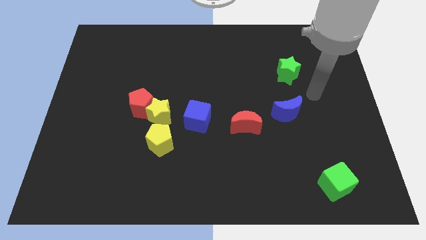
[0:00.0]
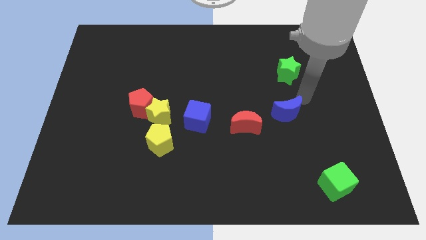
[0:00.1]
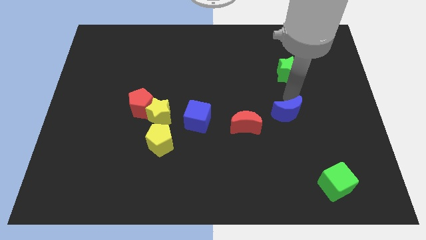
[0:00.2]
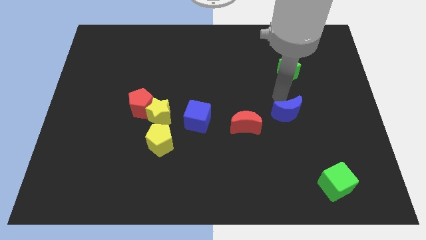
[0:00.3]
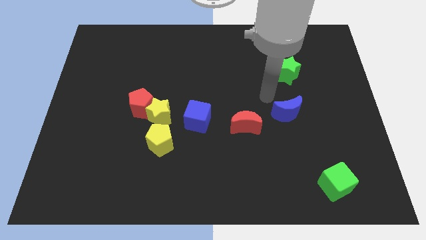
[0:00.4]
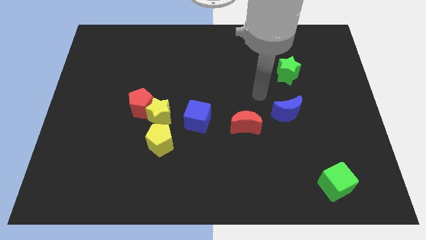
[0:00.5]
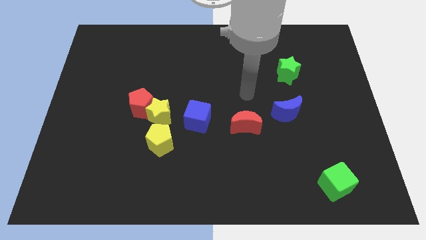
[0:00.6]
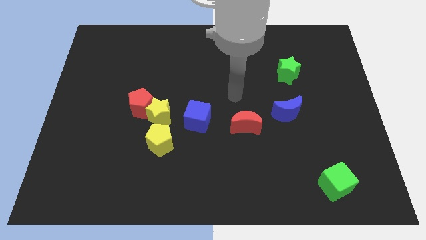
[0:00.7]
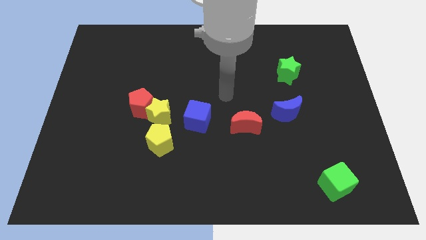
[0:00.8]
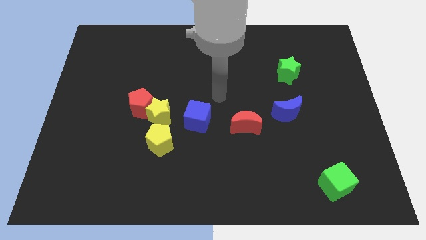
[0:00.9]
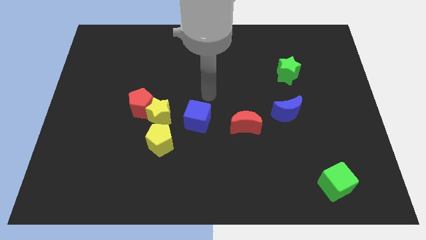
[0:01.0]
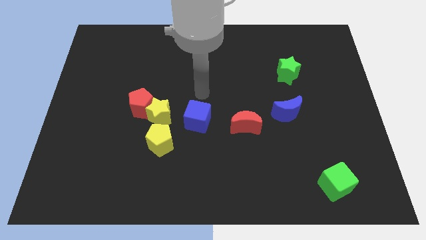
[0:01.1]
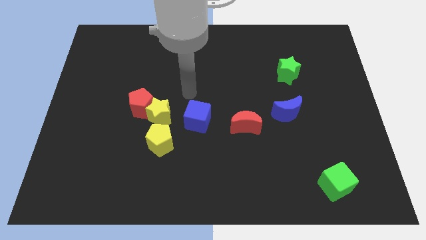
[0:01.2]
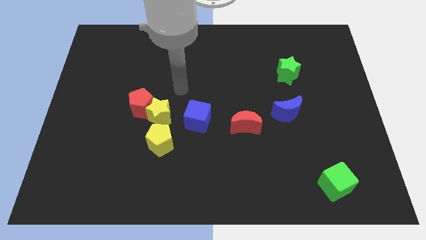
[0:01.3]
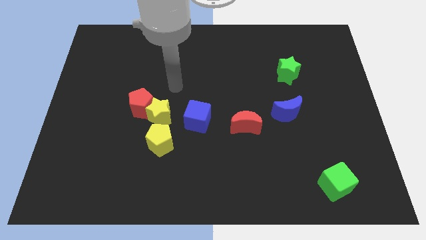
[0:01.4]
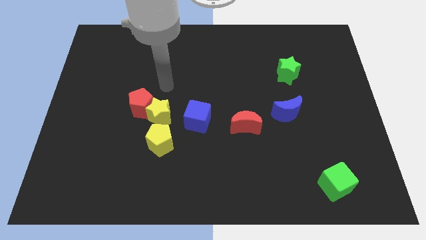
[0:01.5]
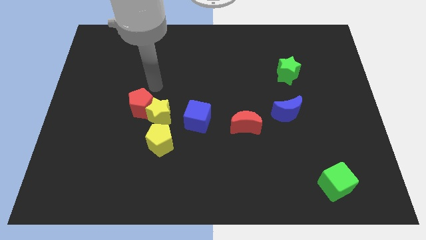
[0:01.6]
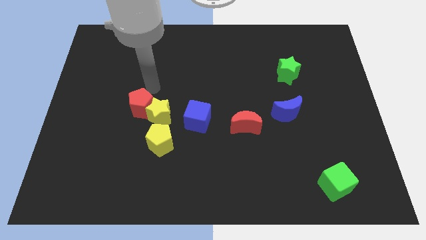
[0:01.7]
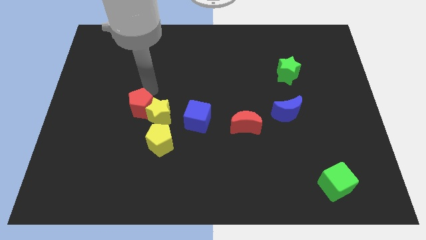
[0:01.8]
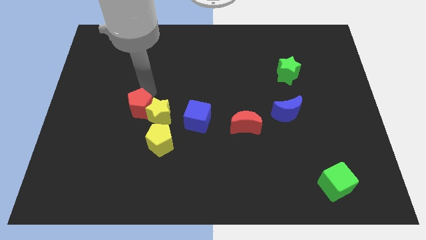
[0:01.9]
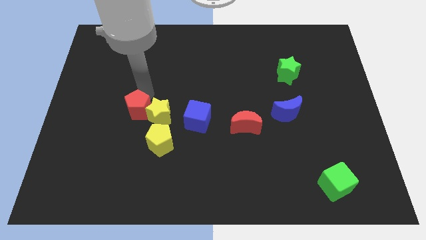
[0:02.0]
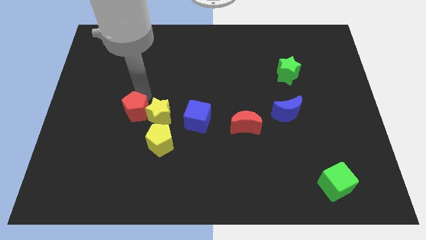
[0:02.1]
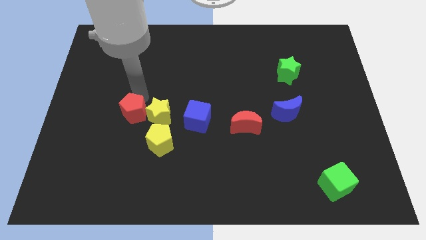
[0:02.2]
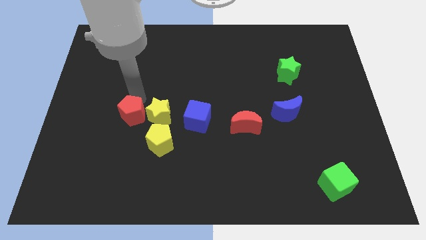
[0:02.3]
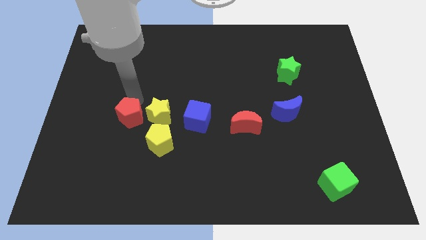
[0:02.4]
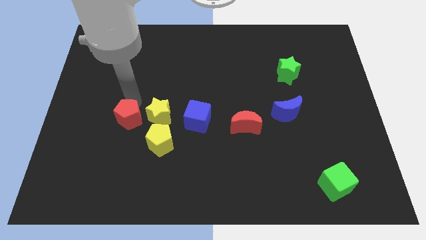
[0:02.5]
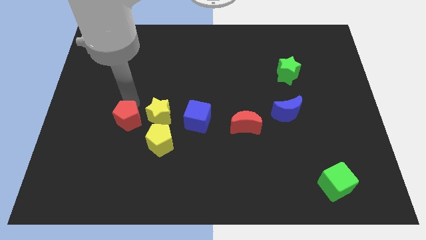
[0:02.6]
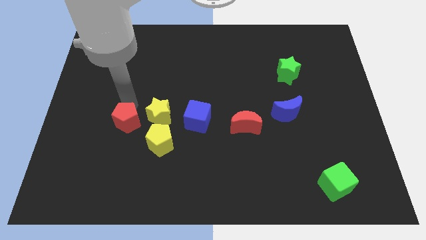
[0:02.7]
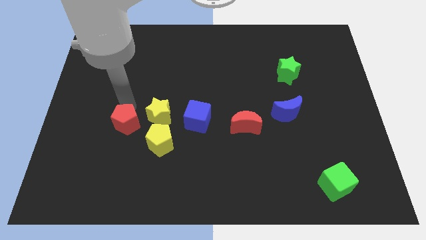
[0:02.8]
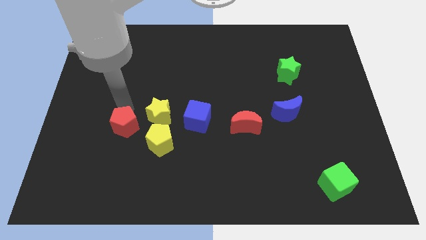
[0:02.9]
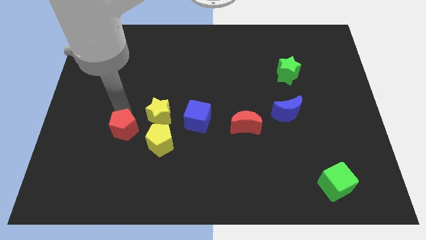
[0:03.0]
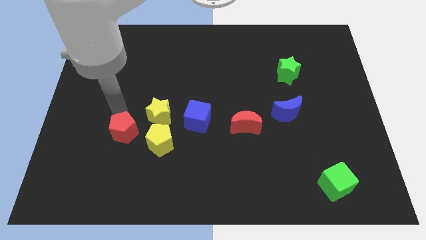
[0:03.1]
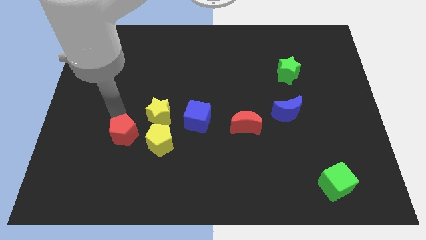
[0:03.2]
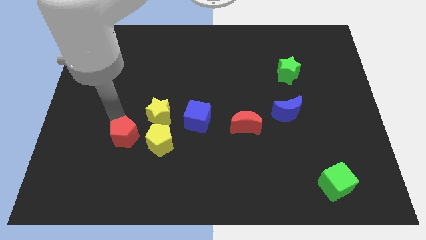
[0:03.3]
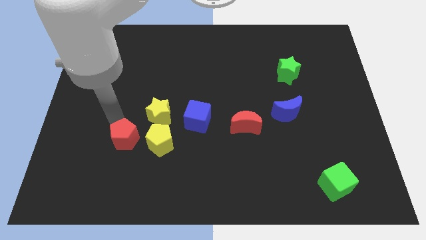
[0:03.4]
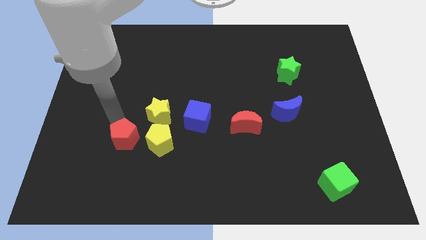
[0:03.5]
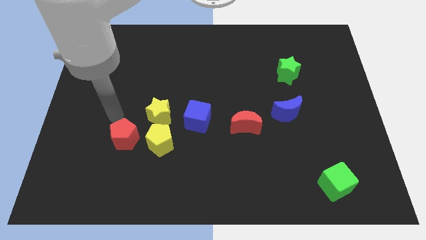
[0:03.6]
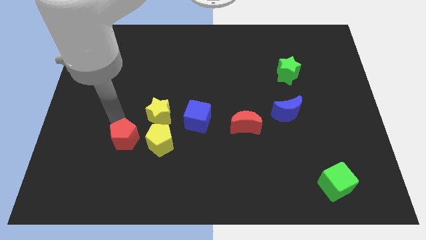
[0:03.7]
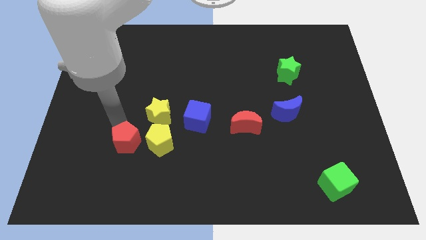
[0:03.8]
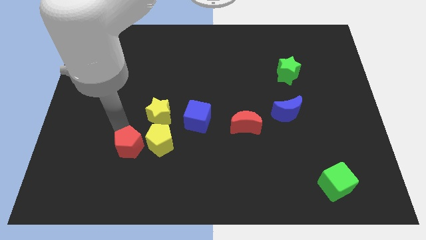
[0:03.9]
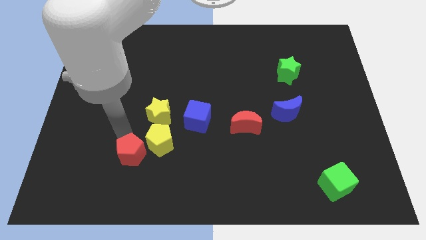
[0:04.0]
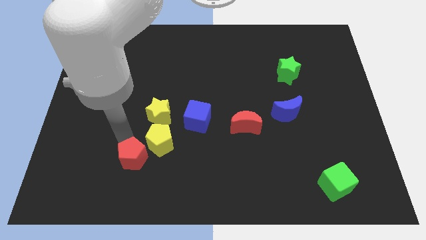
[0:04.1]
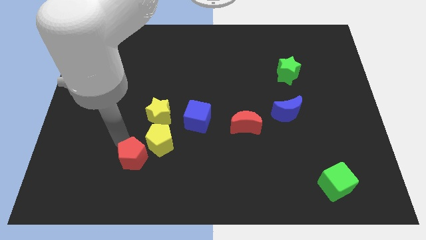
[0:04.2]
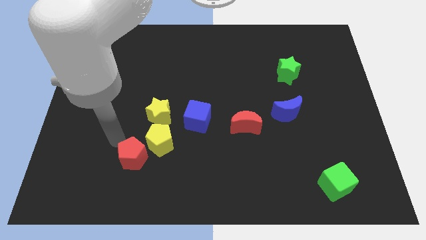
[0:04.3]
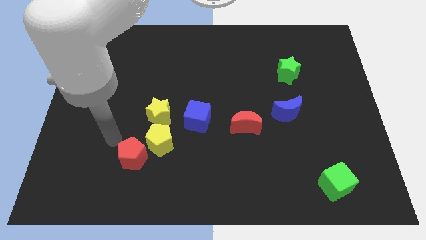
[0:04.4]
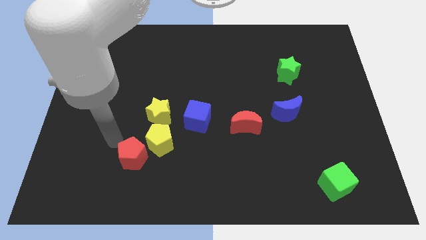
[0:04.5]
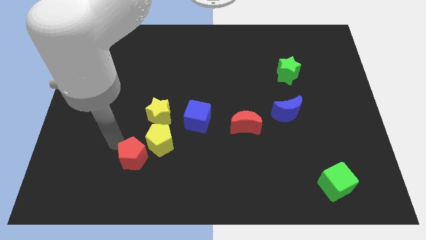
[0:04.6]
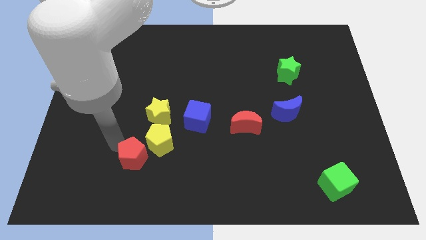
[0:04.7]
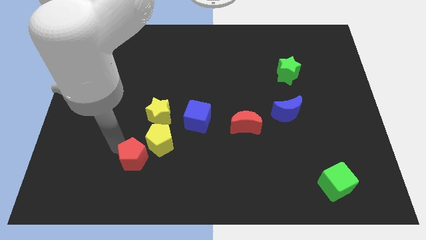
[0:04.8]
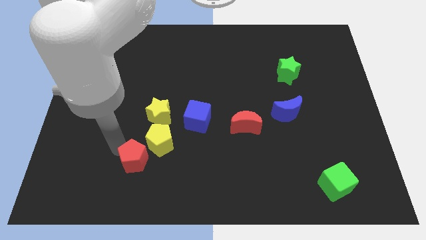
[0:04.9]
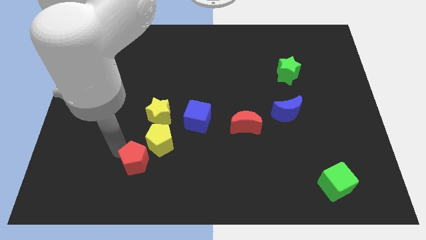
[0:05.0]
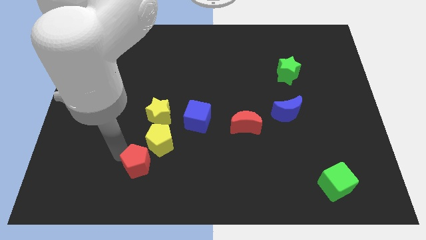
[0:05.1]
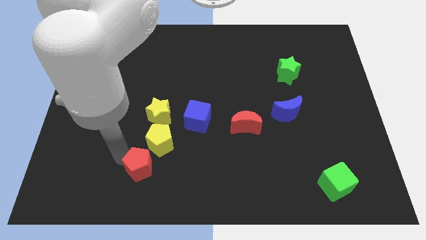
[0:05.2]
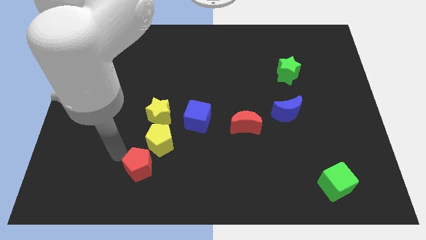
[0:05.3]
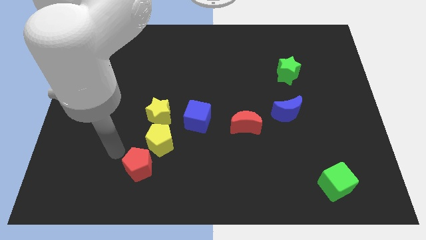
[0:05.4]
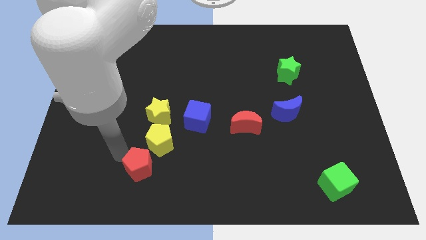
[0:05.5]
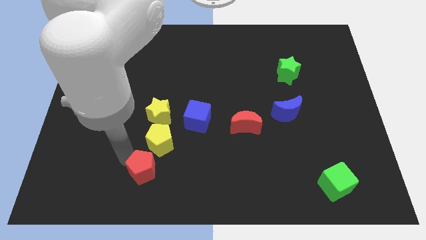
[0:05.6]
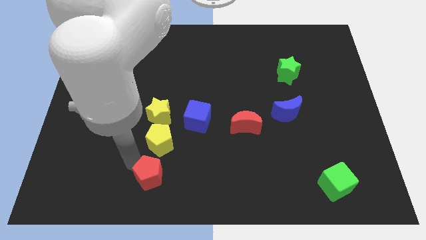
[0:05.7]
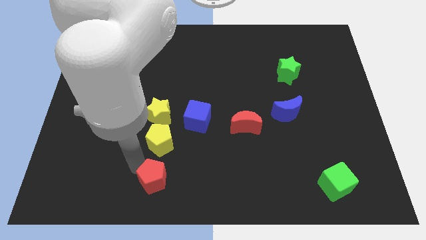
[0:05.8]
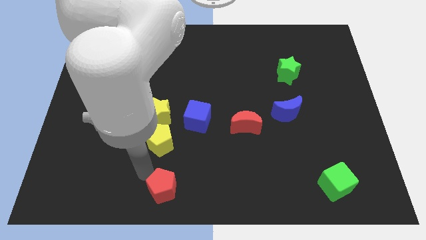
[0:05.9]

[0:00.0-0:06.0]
slide the red pentagon to the bottom side

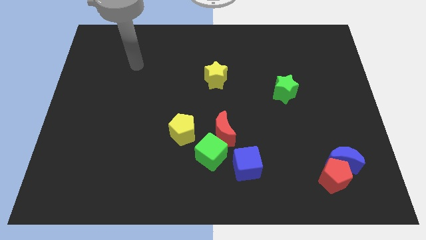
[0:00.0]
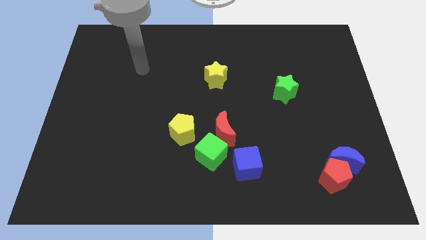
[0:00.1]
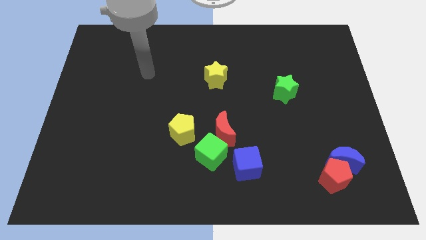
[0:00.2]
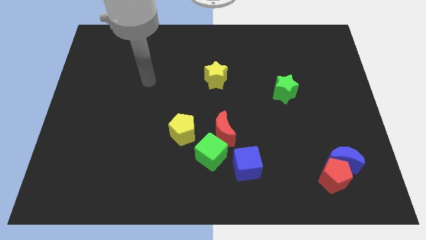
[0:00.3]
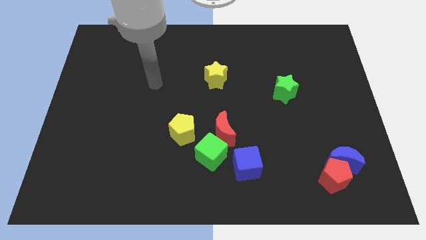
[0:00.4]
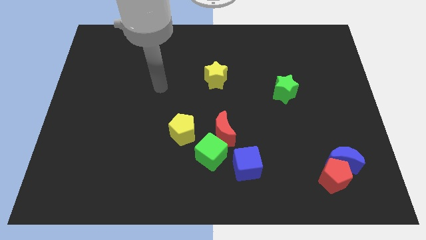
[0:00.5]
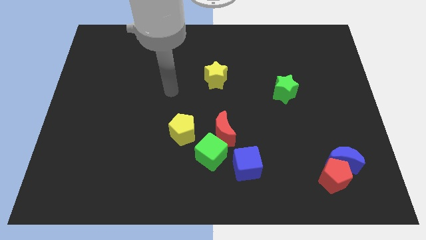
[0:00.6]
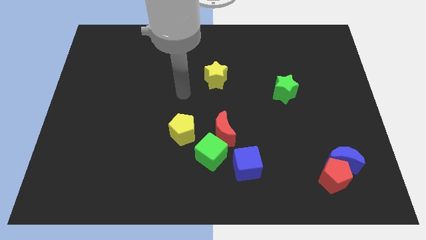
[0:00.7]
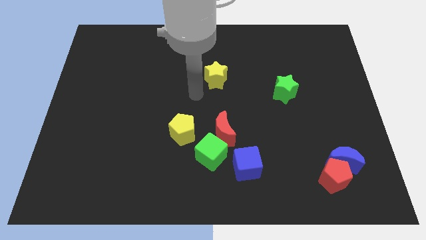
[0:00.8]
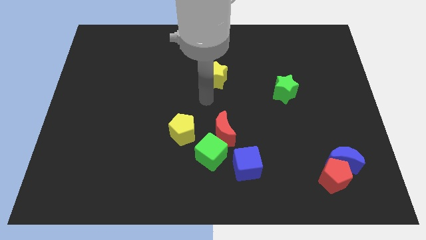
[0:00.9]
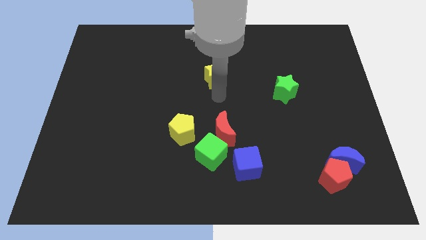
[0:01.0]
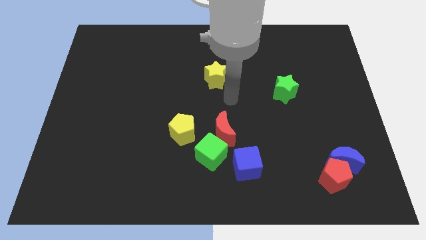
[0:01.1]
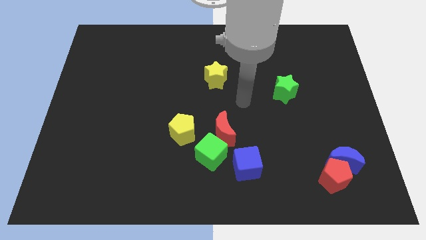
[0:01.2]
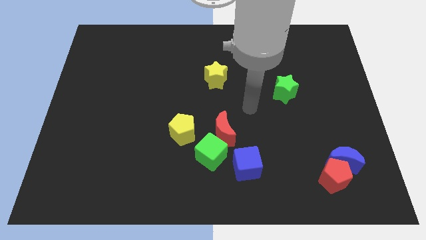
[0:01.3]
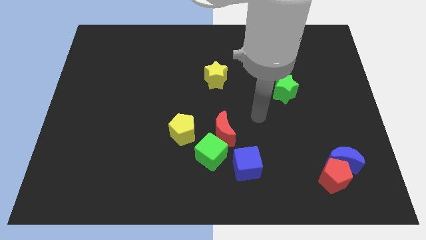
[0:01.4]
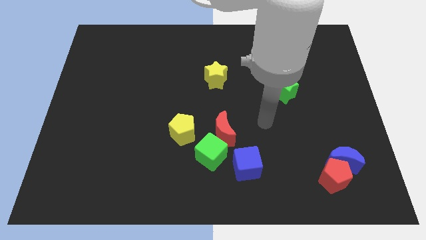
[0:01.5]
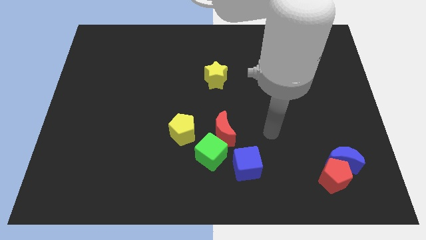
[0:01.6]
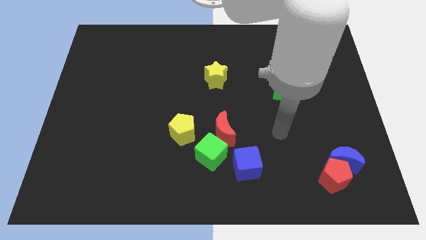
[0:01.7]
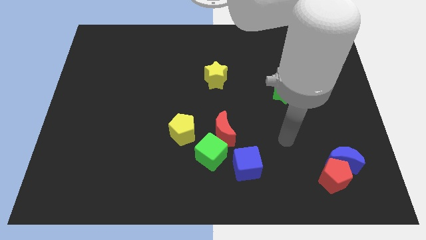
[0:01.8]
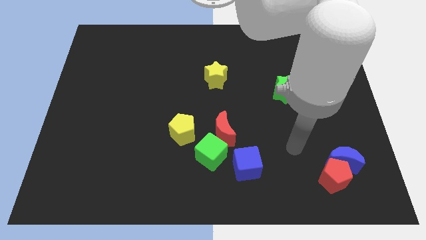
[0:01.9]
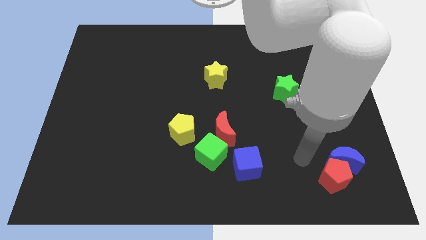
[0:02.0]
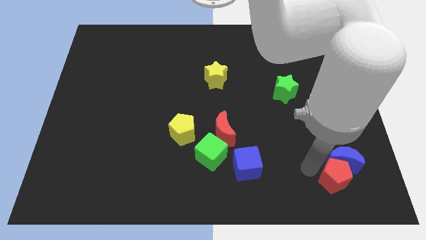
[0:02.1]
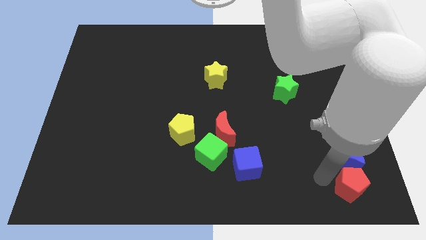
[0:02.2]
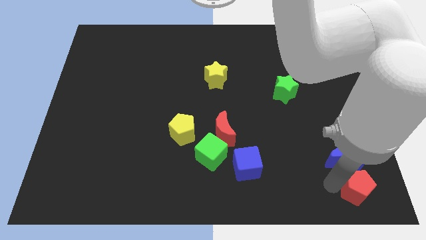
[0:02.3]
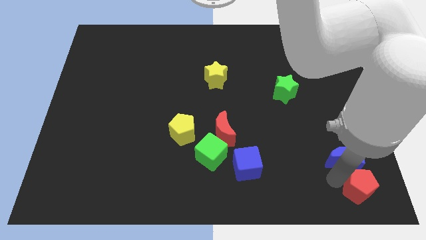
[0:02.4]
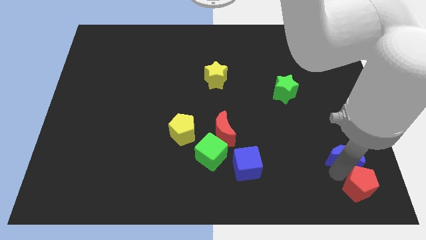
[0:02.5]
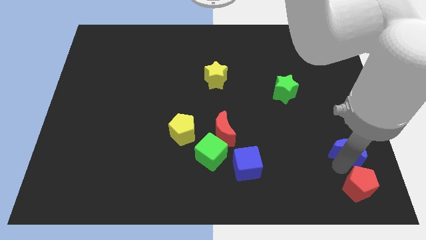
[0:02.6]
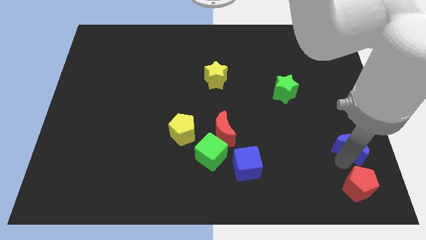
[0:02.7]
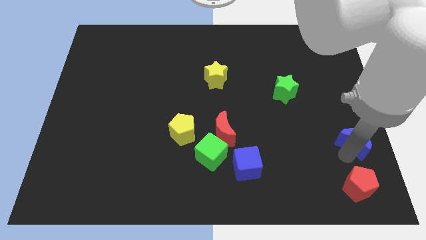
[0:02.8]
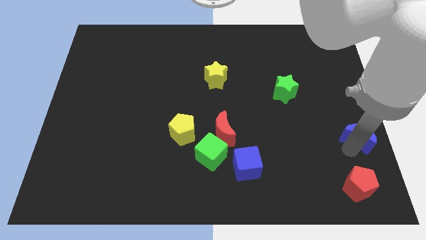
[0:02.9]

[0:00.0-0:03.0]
push the blue moon to the center right
